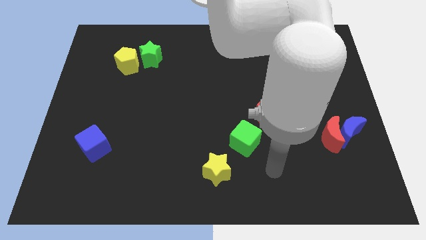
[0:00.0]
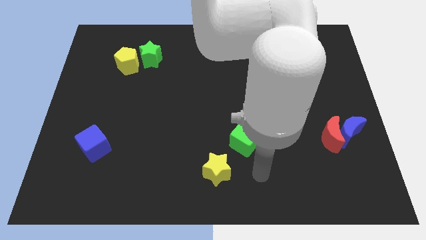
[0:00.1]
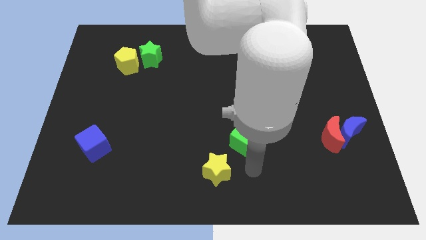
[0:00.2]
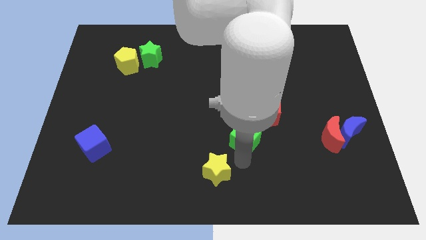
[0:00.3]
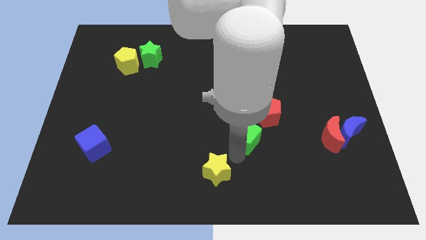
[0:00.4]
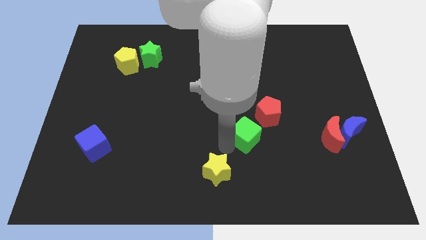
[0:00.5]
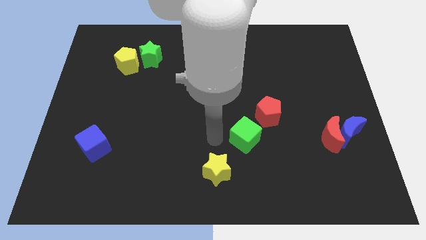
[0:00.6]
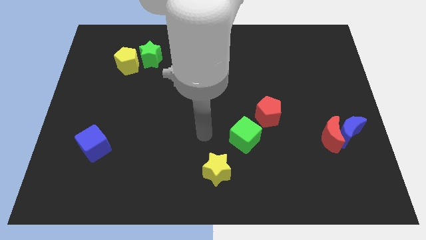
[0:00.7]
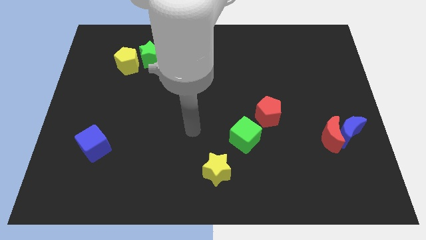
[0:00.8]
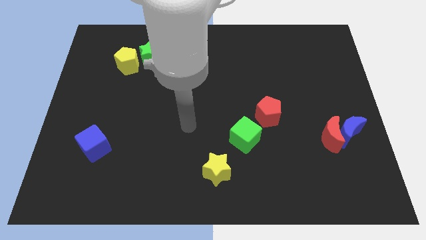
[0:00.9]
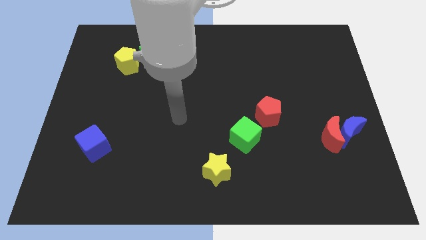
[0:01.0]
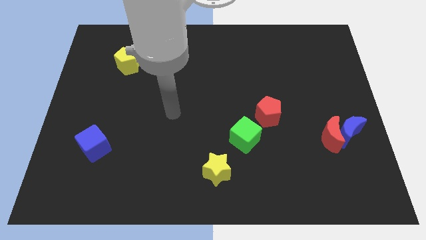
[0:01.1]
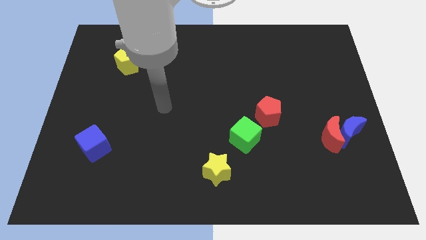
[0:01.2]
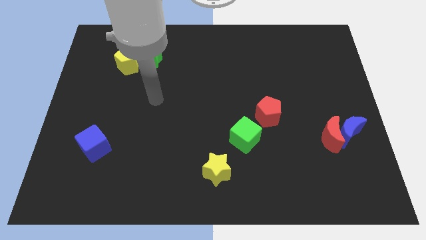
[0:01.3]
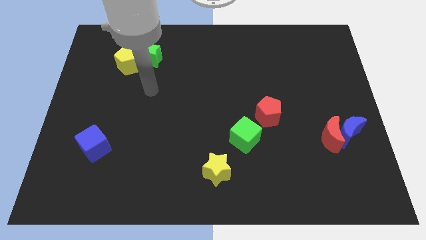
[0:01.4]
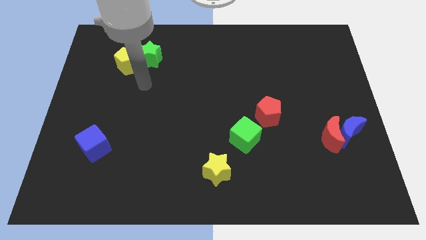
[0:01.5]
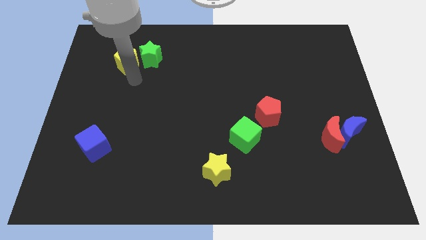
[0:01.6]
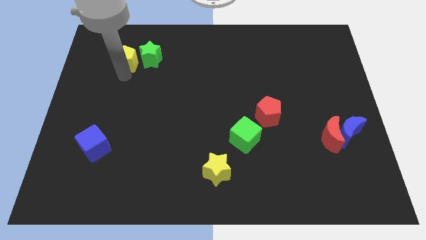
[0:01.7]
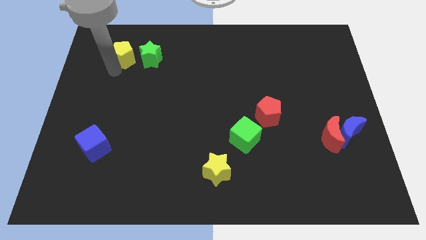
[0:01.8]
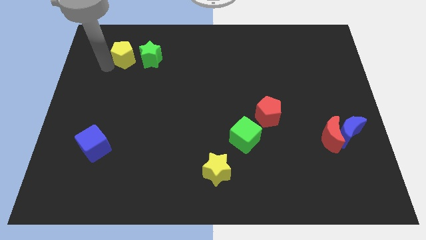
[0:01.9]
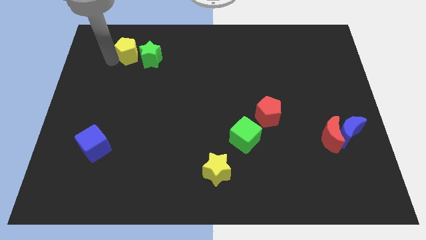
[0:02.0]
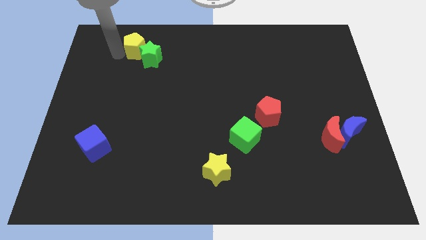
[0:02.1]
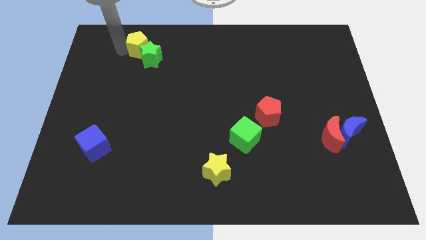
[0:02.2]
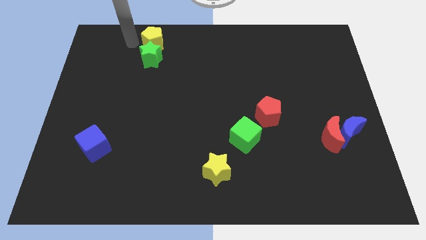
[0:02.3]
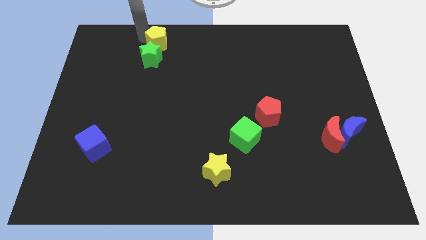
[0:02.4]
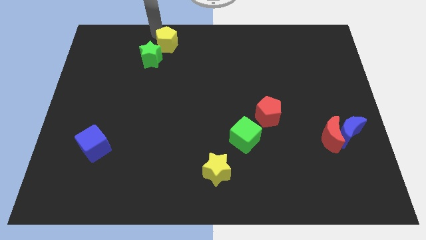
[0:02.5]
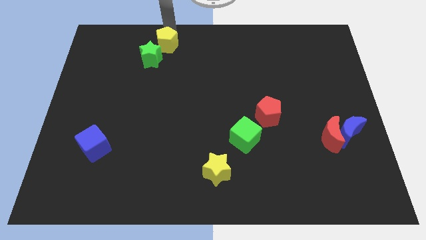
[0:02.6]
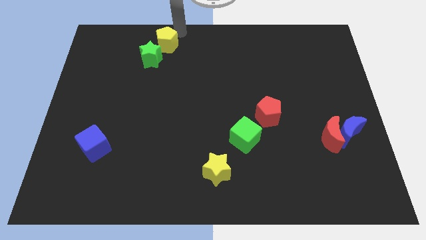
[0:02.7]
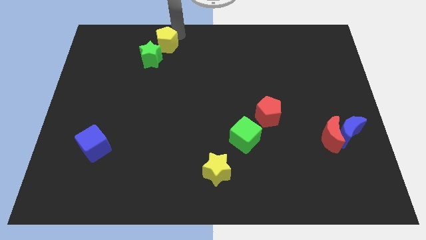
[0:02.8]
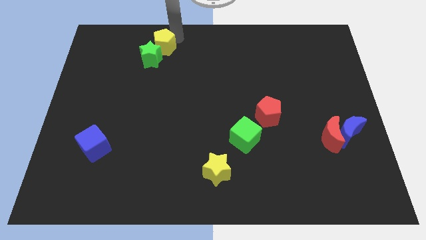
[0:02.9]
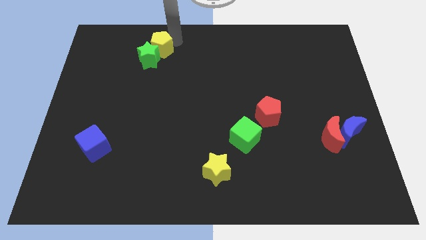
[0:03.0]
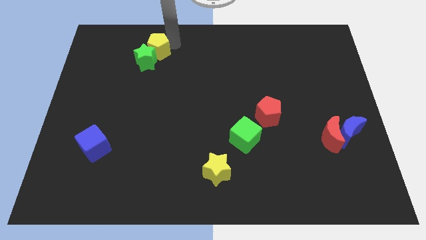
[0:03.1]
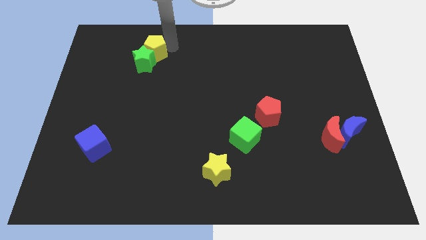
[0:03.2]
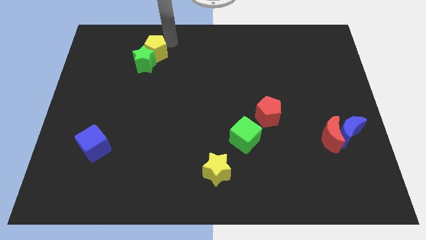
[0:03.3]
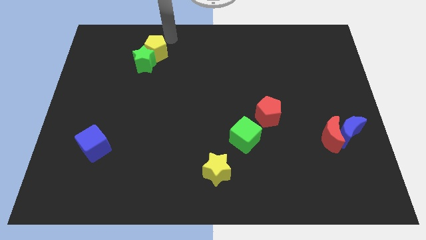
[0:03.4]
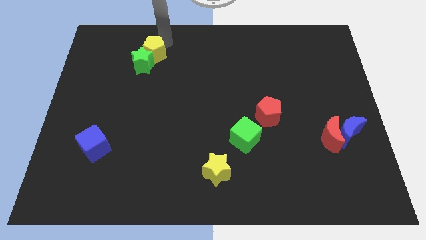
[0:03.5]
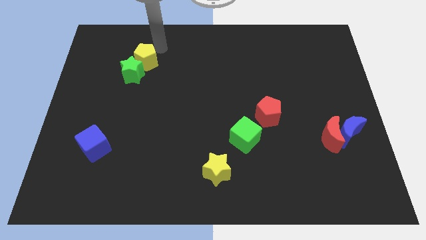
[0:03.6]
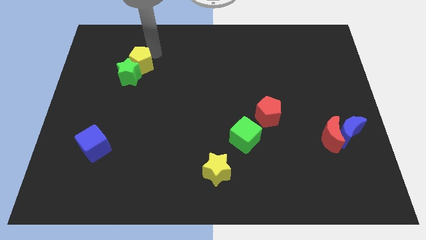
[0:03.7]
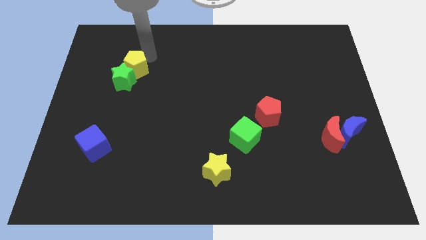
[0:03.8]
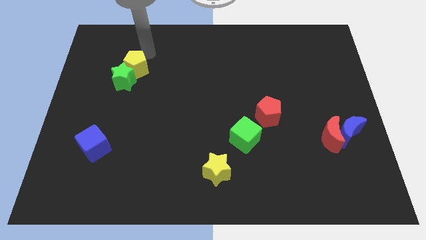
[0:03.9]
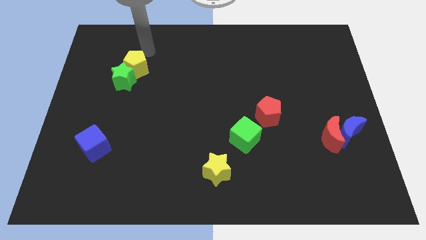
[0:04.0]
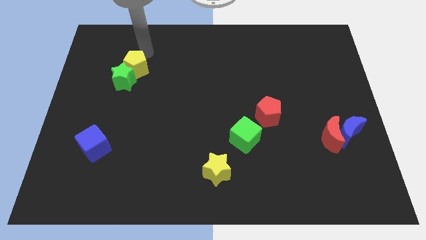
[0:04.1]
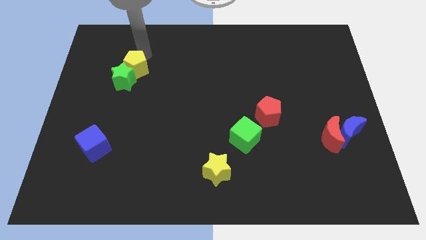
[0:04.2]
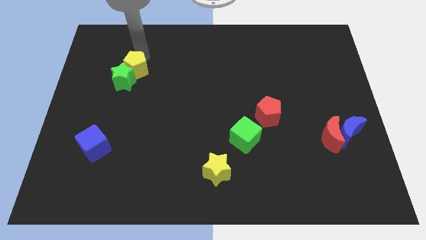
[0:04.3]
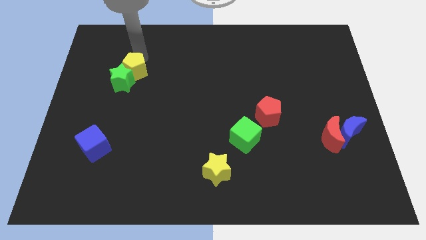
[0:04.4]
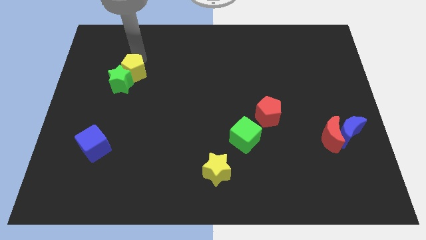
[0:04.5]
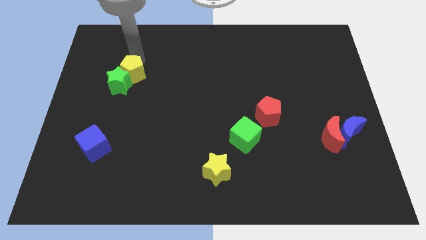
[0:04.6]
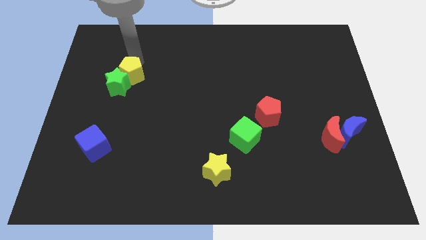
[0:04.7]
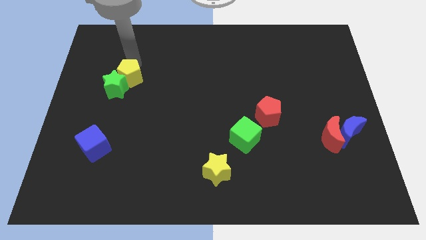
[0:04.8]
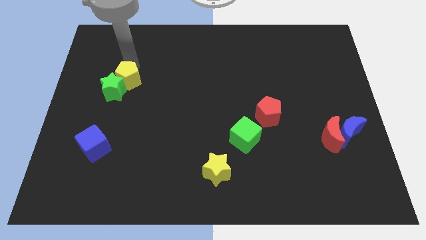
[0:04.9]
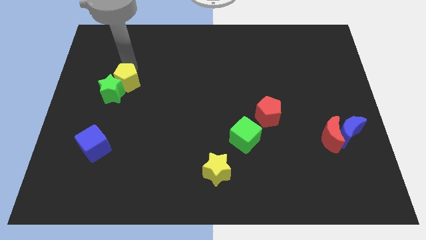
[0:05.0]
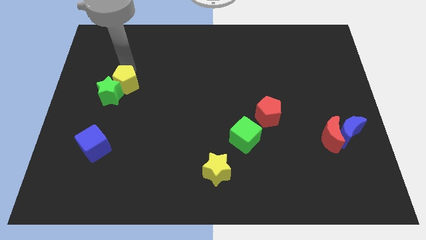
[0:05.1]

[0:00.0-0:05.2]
slide the yellow pentagon slightly downwards

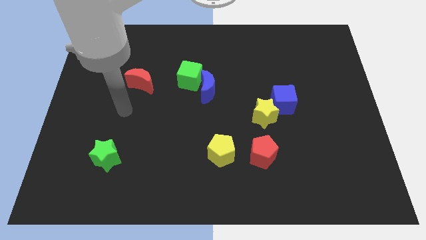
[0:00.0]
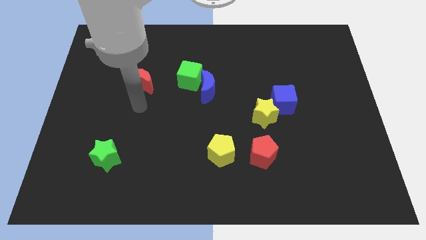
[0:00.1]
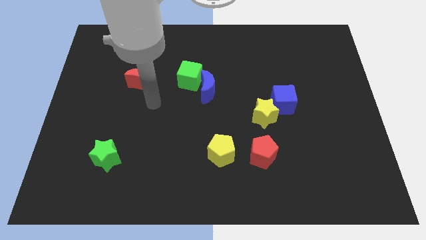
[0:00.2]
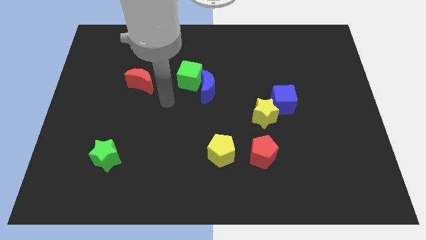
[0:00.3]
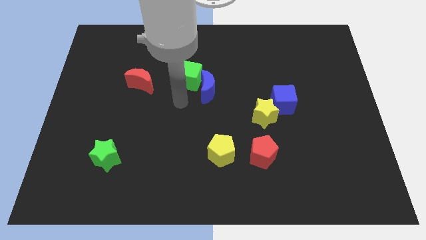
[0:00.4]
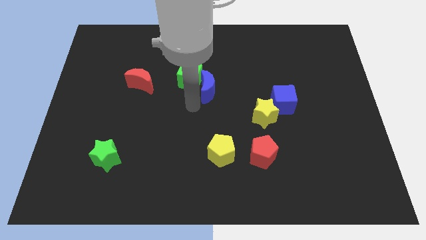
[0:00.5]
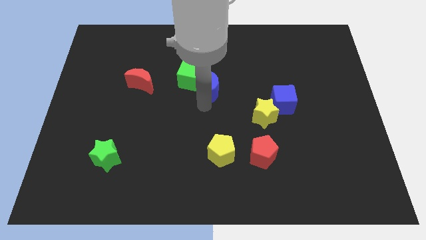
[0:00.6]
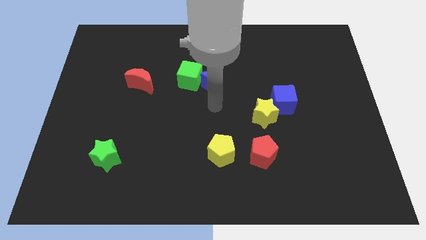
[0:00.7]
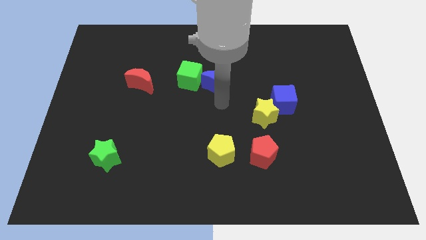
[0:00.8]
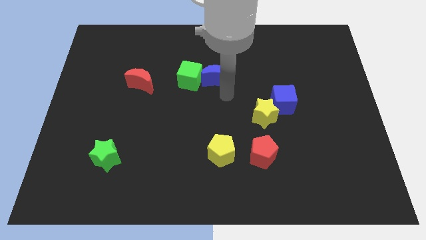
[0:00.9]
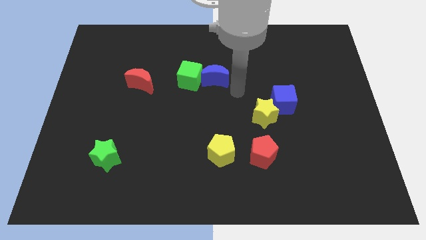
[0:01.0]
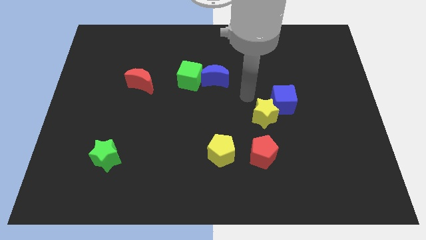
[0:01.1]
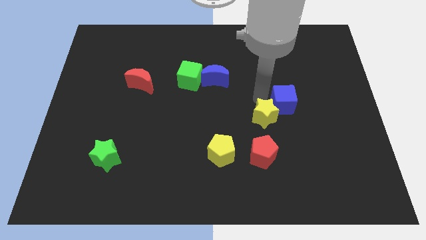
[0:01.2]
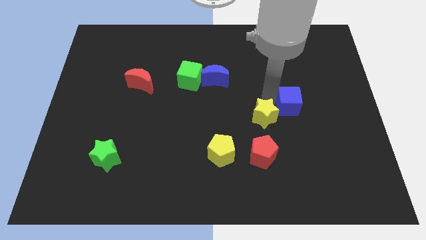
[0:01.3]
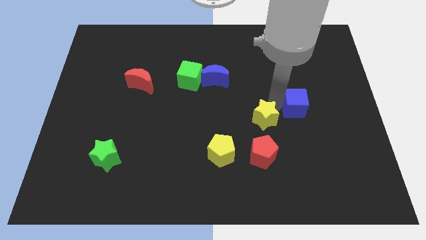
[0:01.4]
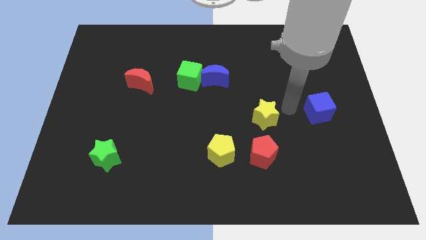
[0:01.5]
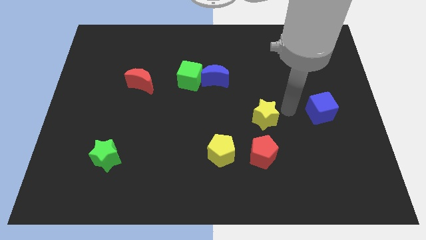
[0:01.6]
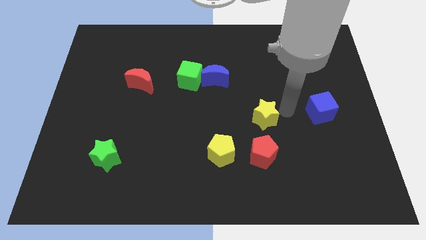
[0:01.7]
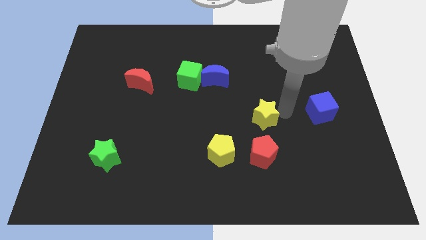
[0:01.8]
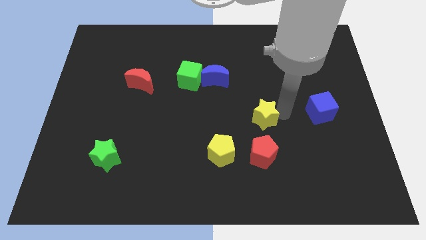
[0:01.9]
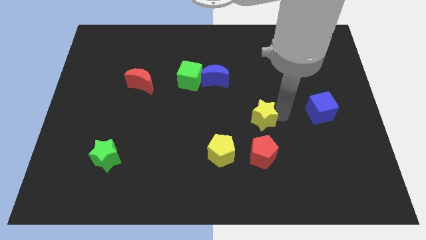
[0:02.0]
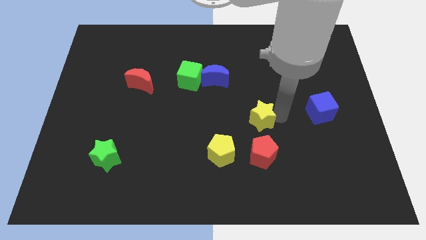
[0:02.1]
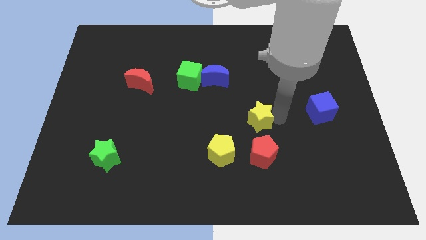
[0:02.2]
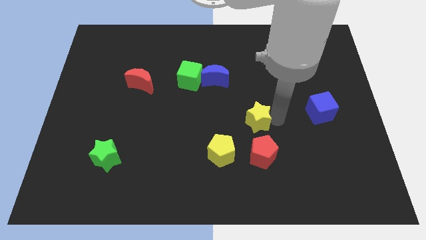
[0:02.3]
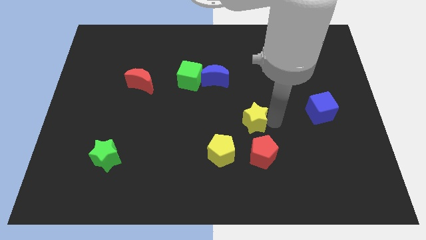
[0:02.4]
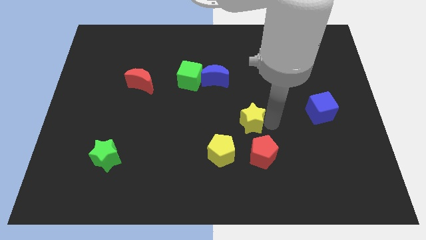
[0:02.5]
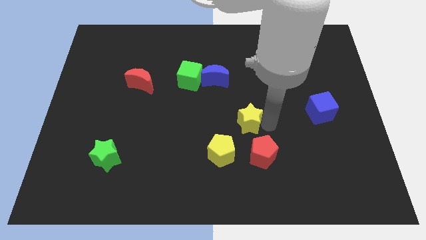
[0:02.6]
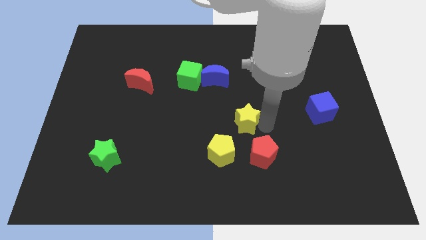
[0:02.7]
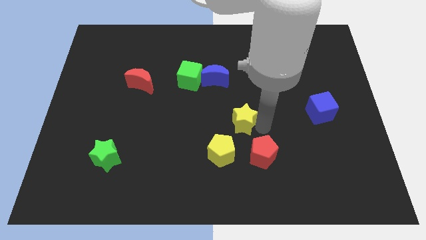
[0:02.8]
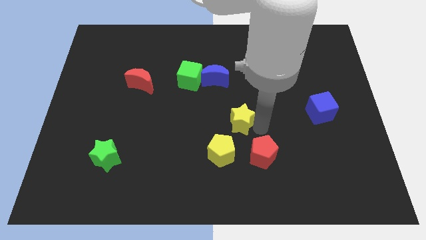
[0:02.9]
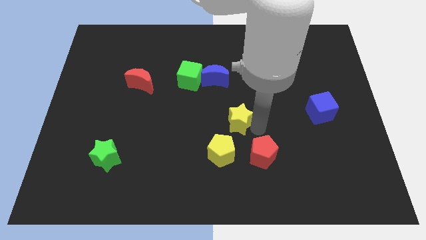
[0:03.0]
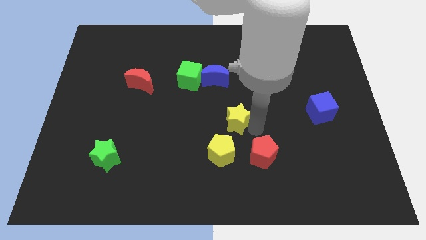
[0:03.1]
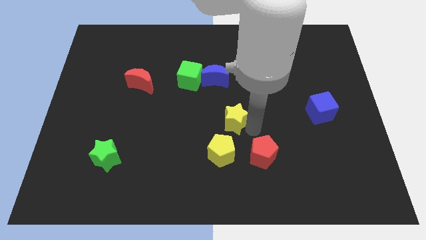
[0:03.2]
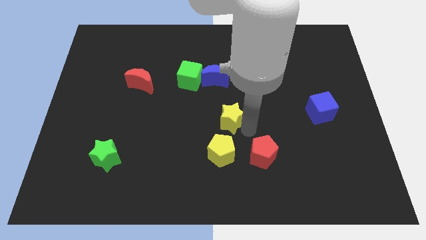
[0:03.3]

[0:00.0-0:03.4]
push the yellow star a bit left
